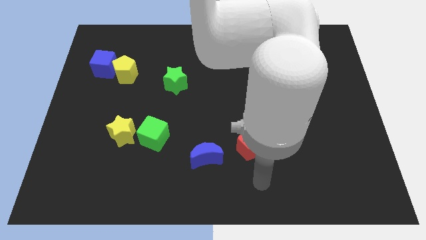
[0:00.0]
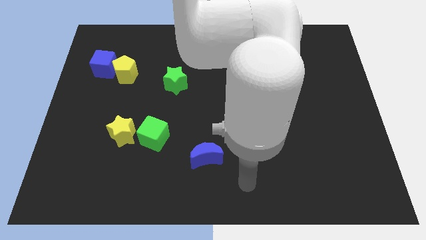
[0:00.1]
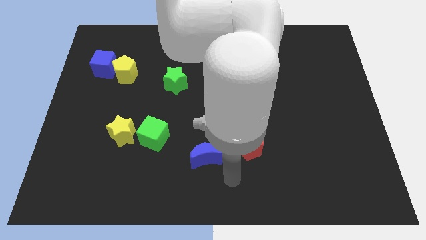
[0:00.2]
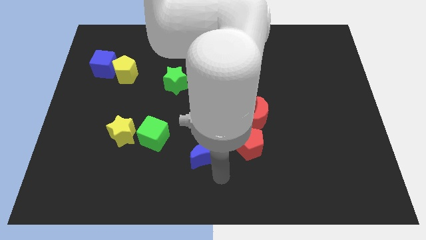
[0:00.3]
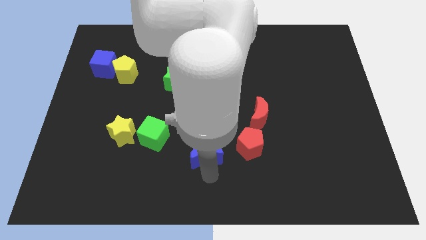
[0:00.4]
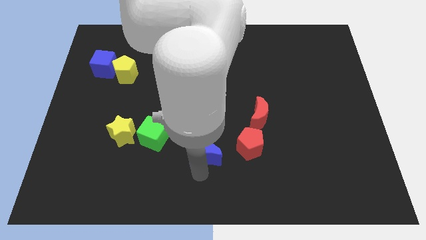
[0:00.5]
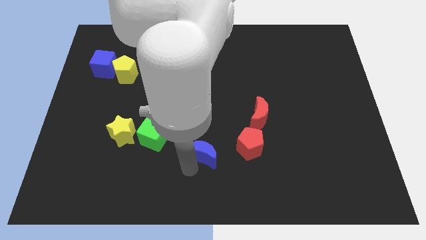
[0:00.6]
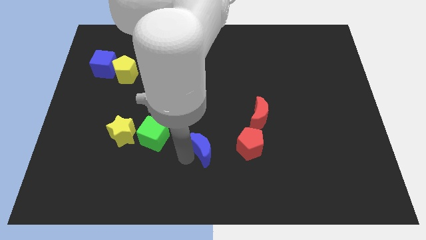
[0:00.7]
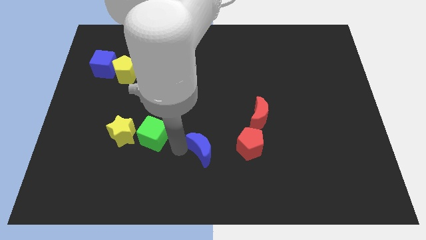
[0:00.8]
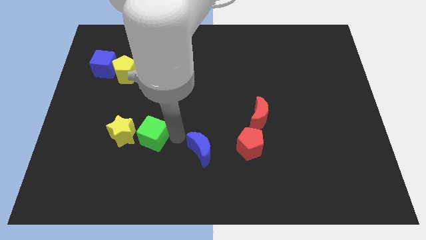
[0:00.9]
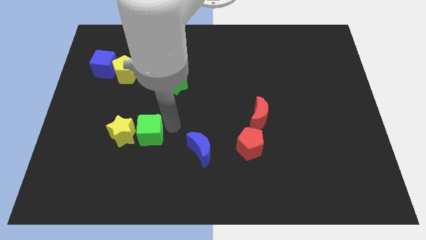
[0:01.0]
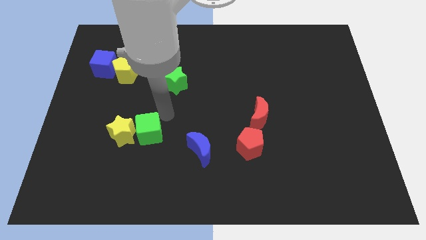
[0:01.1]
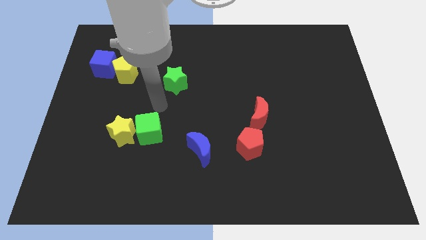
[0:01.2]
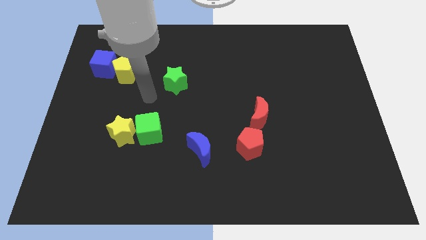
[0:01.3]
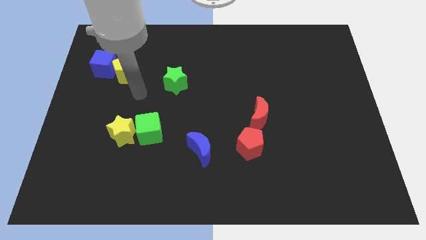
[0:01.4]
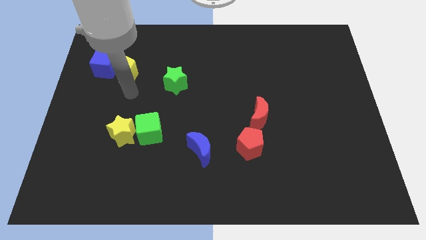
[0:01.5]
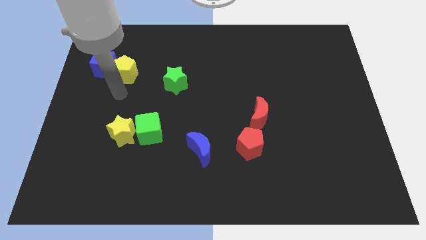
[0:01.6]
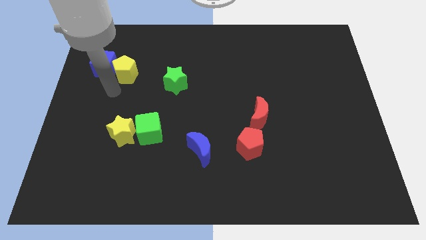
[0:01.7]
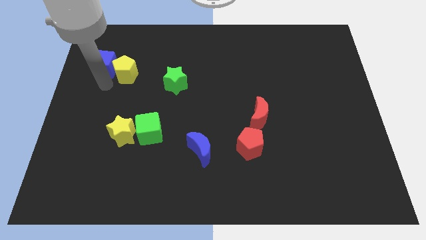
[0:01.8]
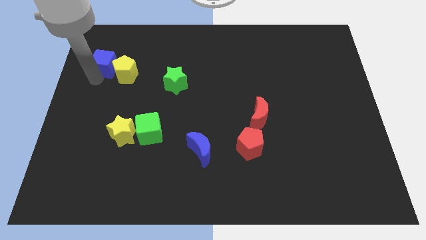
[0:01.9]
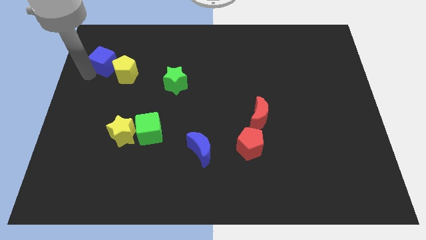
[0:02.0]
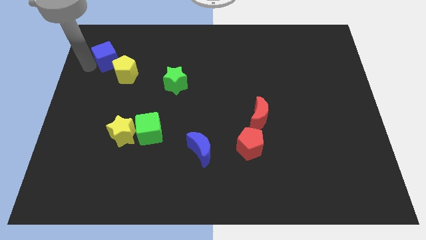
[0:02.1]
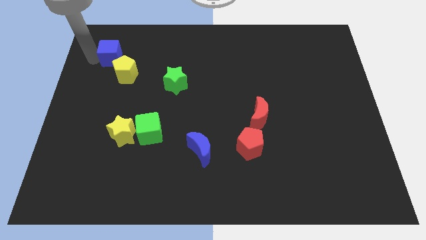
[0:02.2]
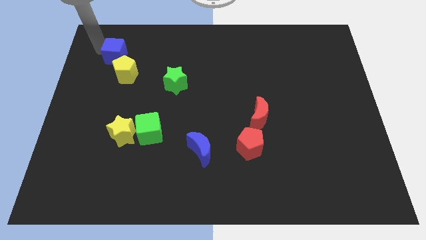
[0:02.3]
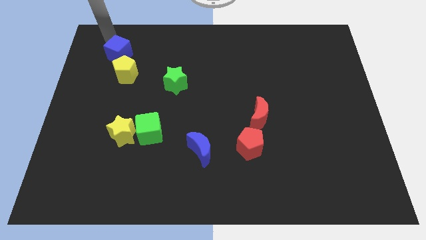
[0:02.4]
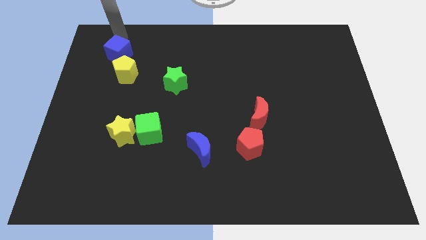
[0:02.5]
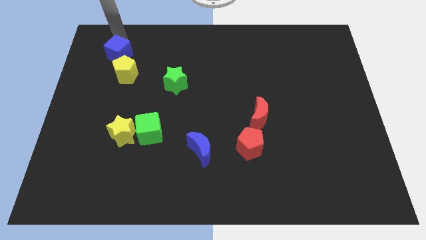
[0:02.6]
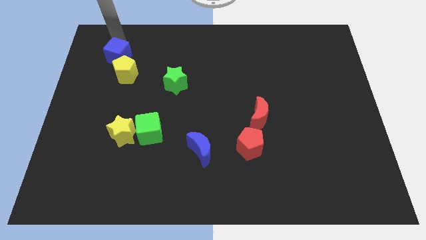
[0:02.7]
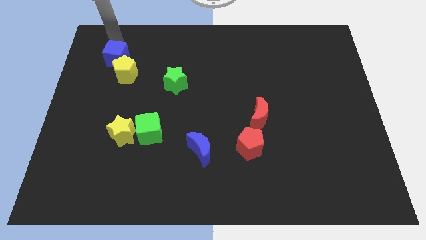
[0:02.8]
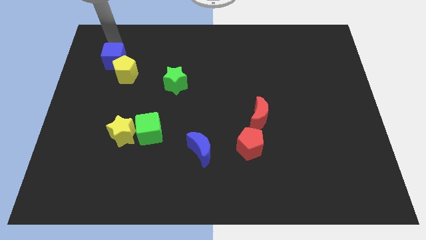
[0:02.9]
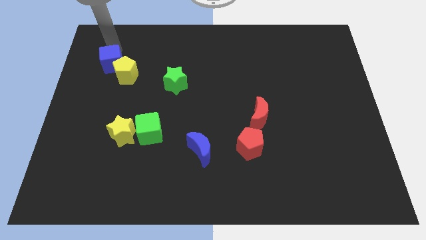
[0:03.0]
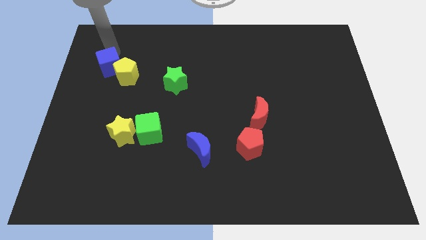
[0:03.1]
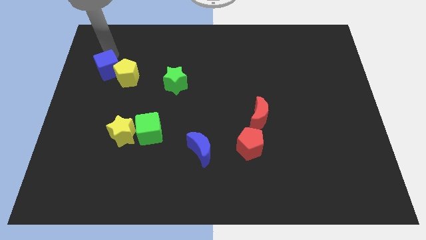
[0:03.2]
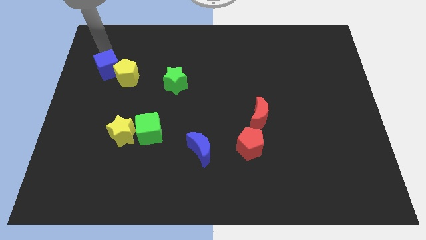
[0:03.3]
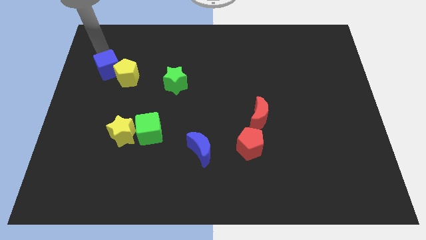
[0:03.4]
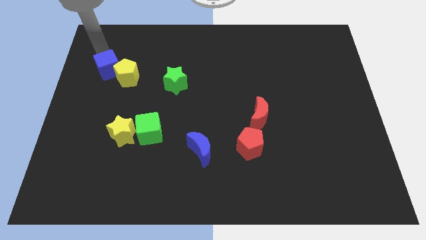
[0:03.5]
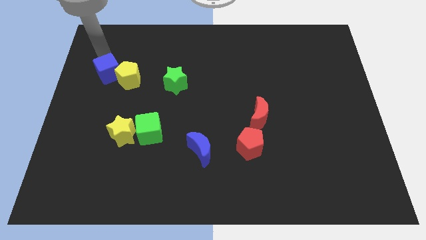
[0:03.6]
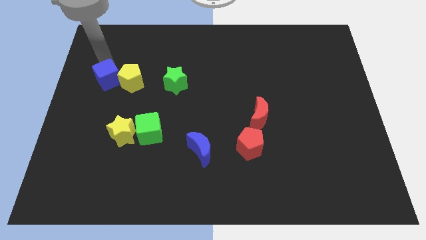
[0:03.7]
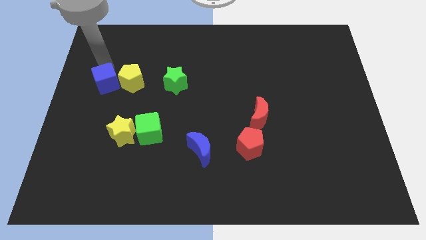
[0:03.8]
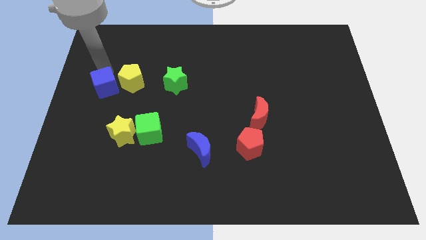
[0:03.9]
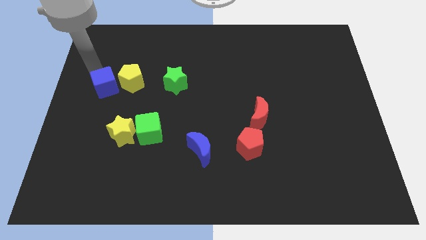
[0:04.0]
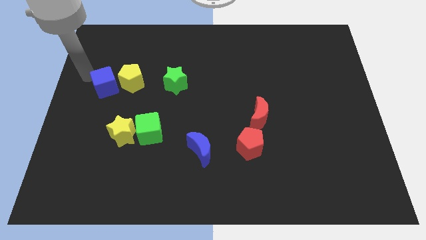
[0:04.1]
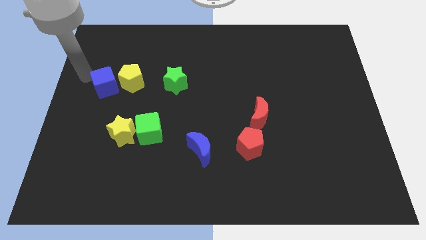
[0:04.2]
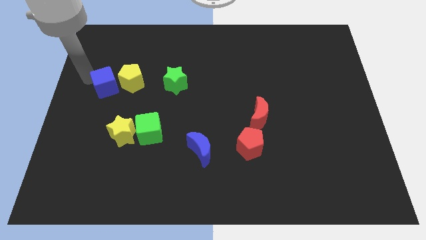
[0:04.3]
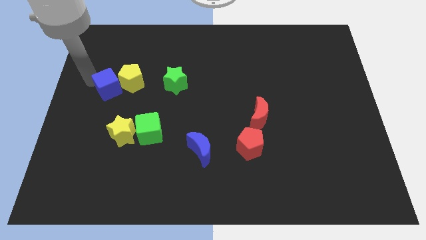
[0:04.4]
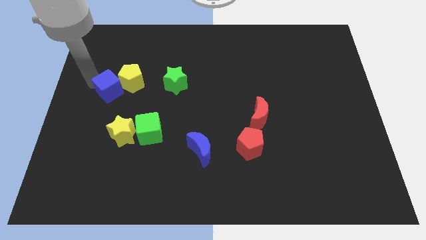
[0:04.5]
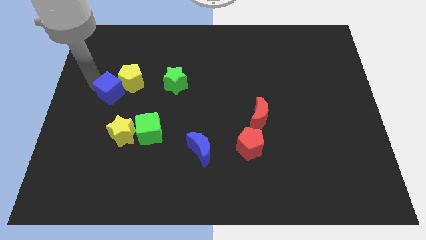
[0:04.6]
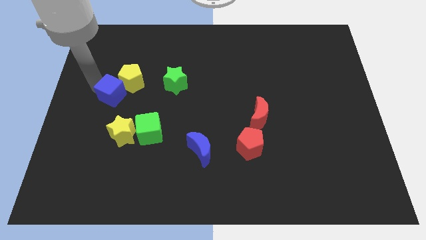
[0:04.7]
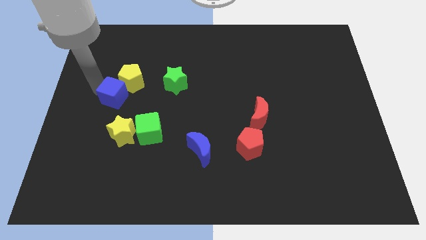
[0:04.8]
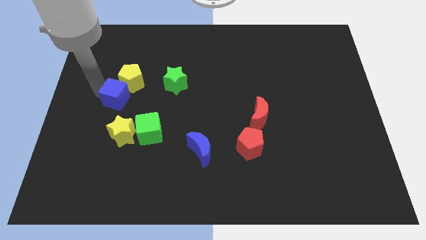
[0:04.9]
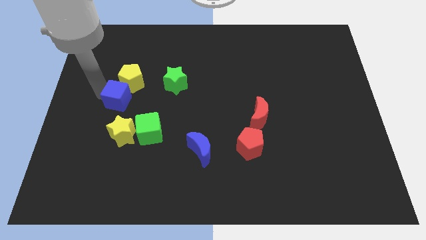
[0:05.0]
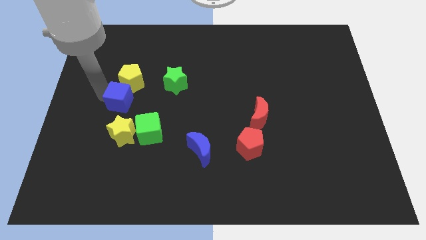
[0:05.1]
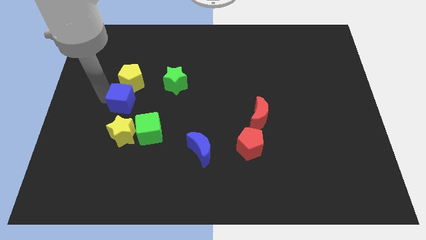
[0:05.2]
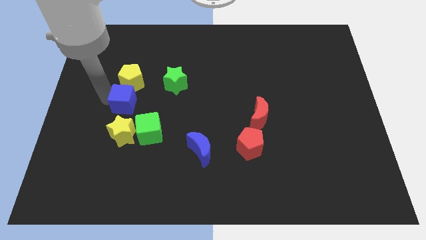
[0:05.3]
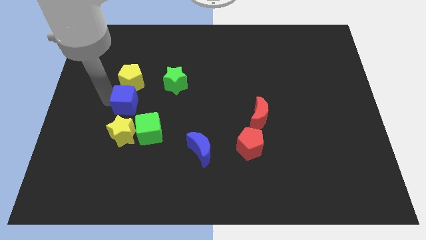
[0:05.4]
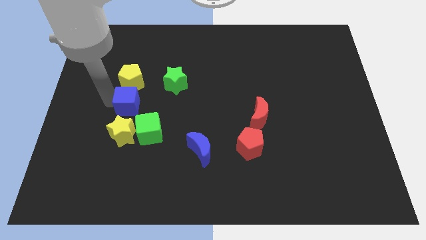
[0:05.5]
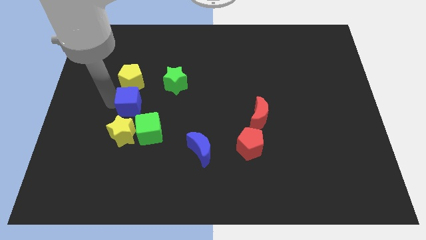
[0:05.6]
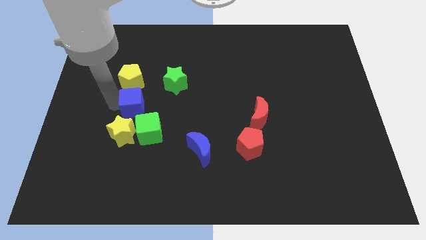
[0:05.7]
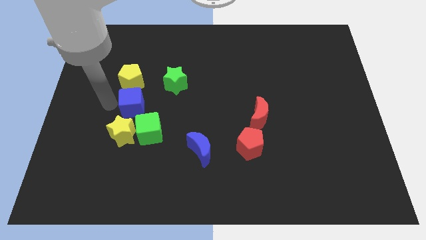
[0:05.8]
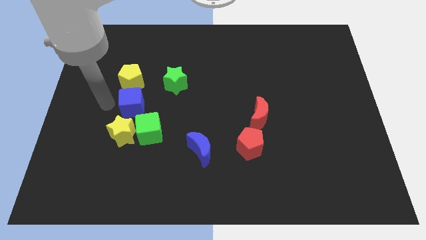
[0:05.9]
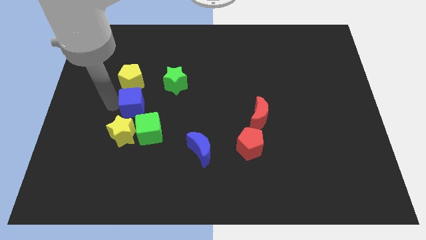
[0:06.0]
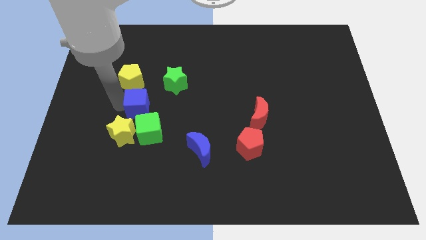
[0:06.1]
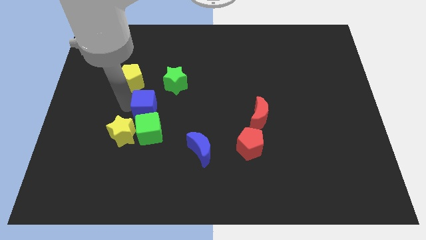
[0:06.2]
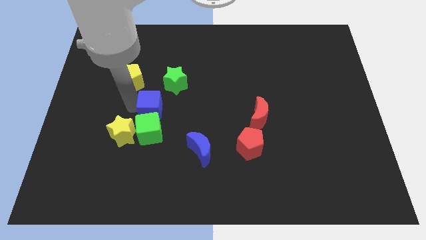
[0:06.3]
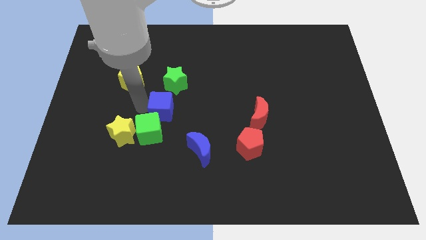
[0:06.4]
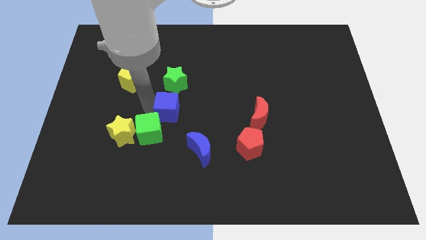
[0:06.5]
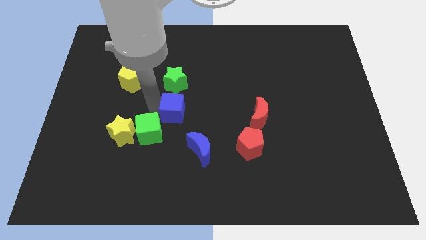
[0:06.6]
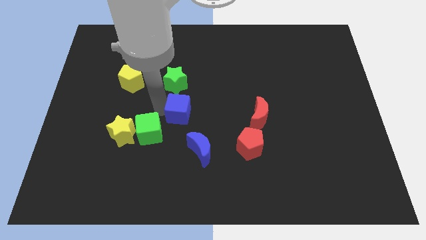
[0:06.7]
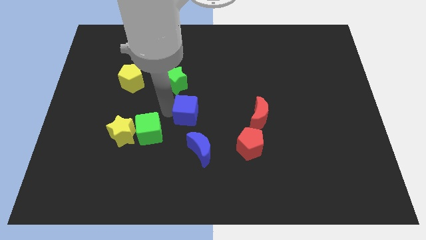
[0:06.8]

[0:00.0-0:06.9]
move the blue cube to the top of the blue moon

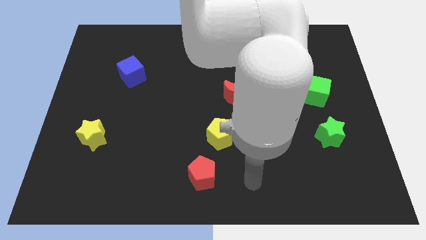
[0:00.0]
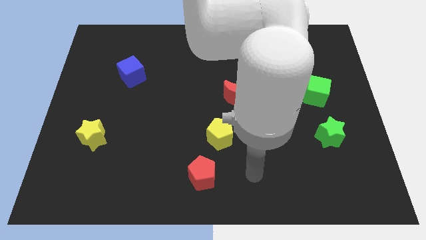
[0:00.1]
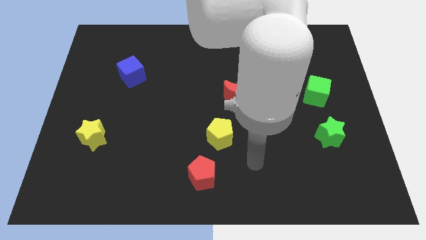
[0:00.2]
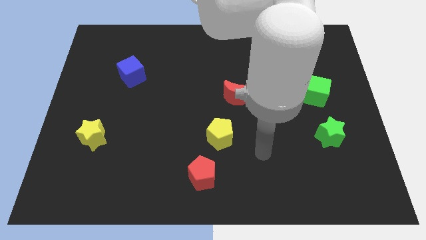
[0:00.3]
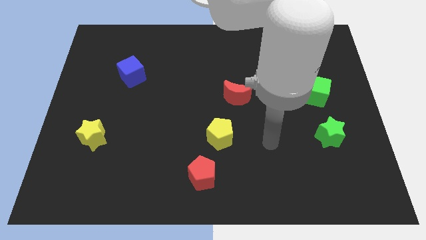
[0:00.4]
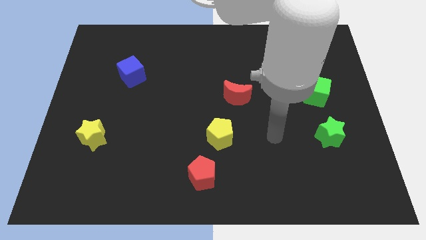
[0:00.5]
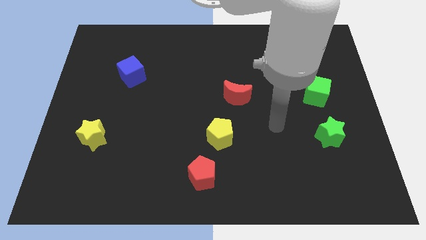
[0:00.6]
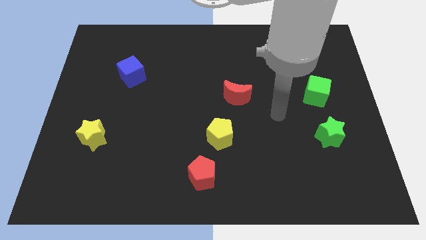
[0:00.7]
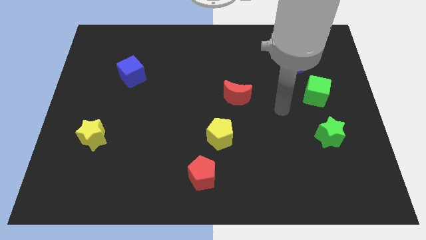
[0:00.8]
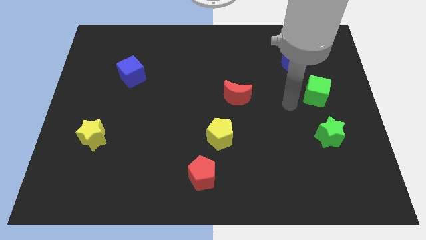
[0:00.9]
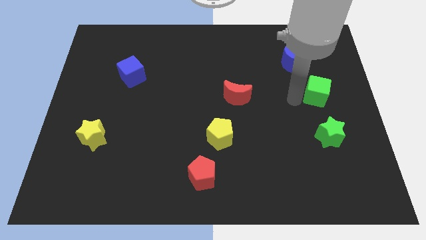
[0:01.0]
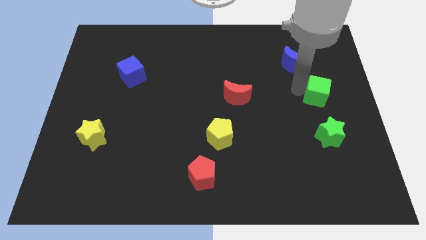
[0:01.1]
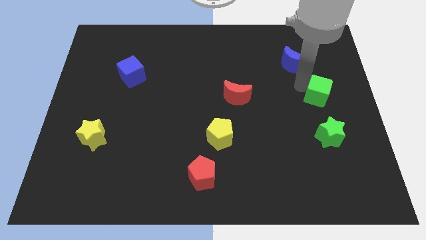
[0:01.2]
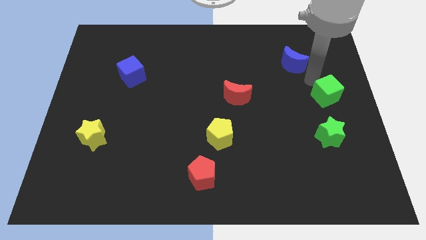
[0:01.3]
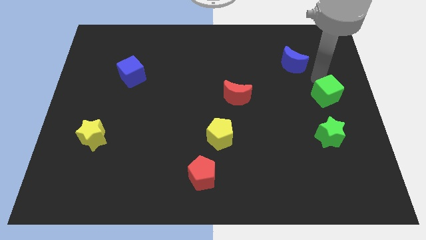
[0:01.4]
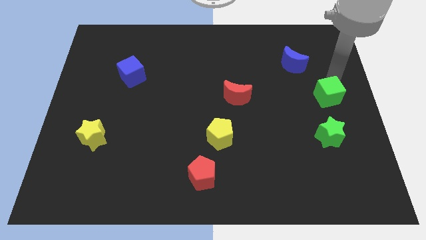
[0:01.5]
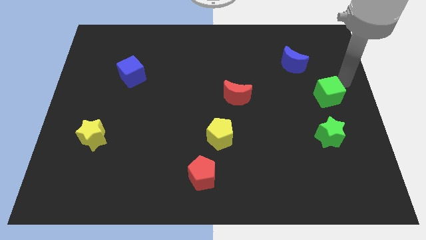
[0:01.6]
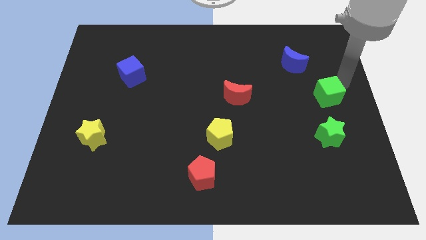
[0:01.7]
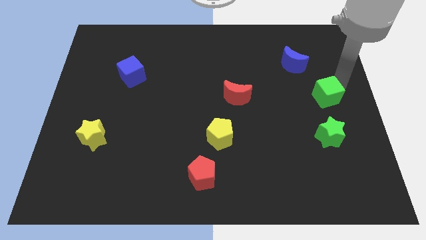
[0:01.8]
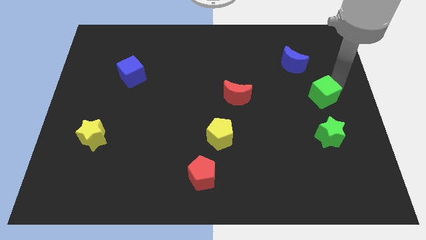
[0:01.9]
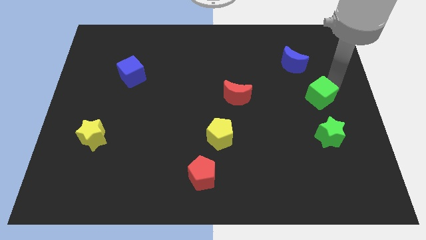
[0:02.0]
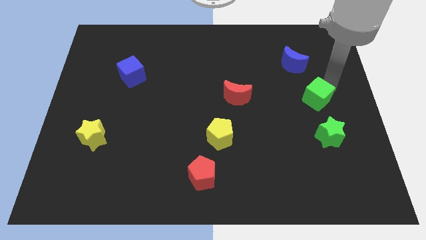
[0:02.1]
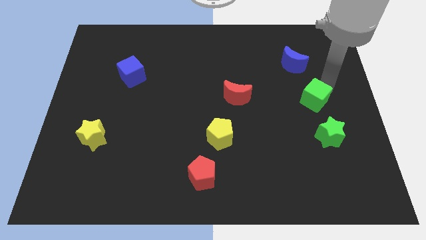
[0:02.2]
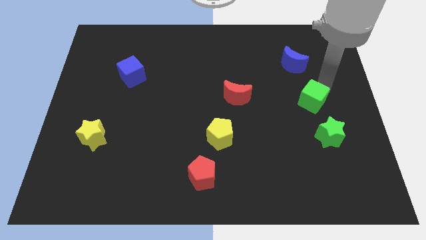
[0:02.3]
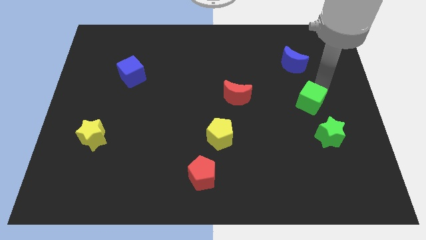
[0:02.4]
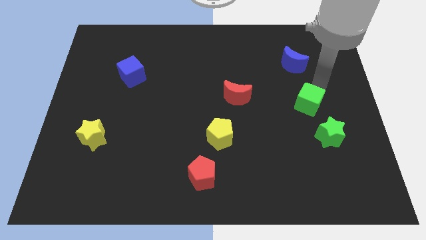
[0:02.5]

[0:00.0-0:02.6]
push the green cube to the top left side of the green star
